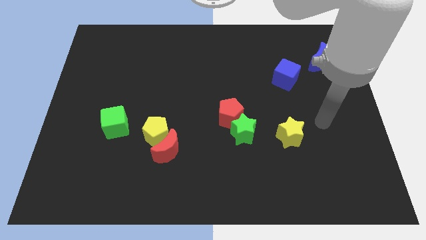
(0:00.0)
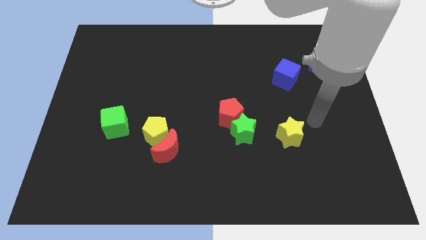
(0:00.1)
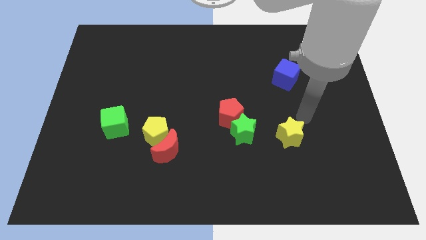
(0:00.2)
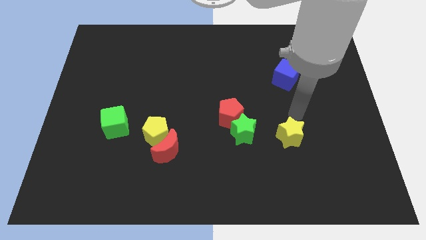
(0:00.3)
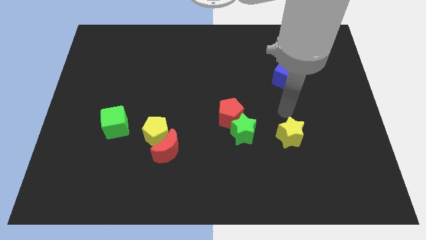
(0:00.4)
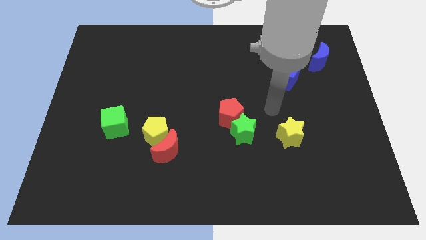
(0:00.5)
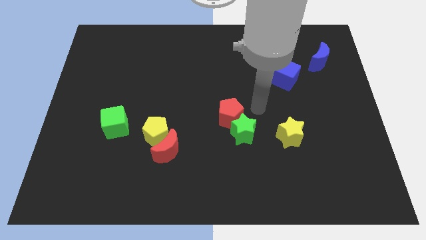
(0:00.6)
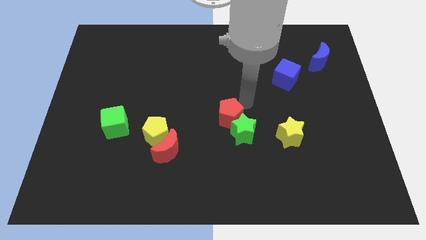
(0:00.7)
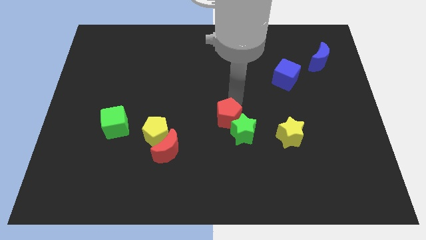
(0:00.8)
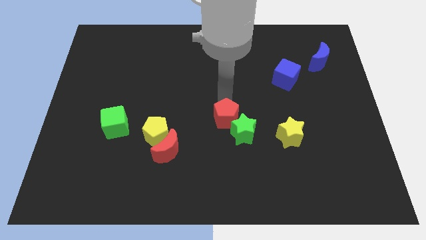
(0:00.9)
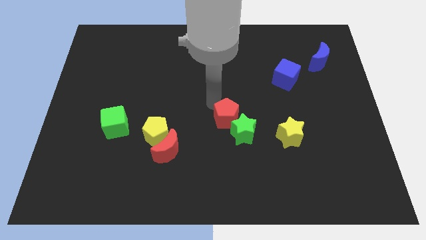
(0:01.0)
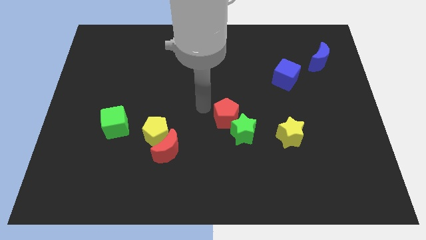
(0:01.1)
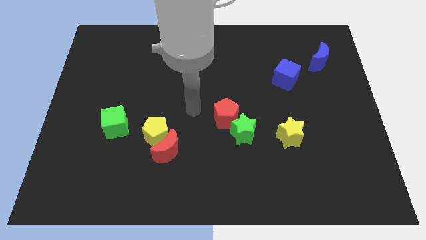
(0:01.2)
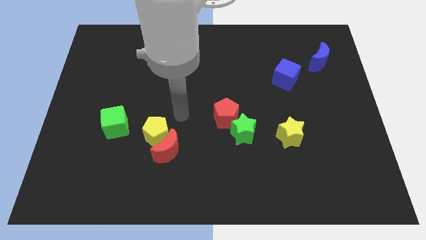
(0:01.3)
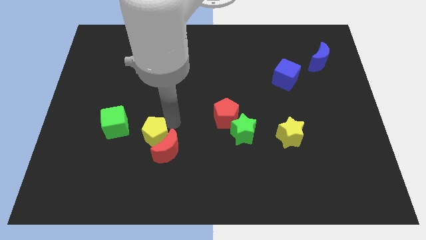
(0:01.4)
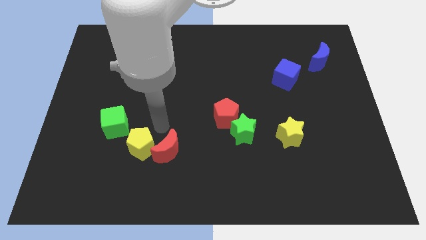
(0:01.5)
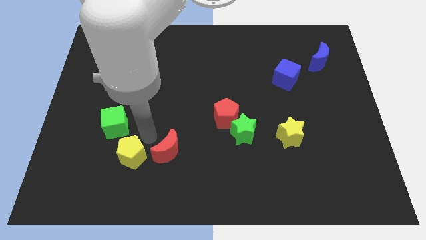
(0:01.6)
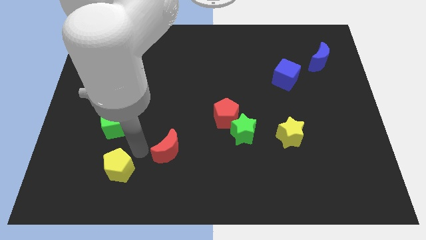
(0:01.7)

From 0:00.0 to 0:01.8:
pull the red moon apart from the yellow pentagon

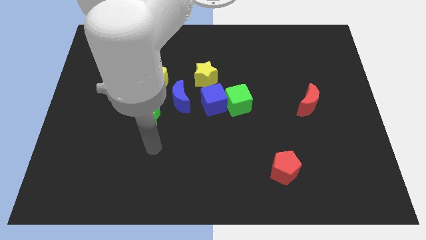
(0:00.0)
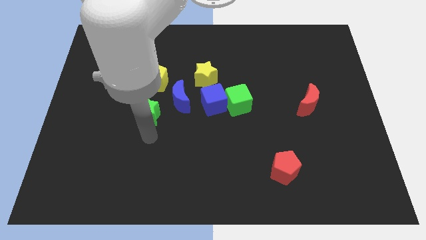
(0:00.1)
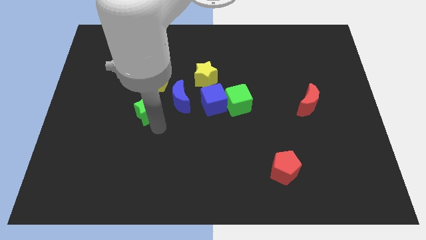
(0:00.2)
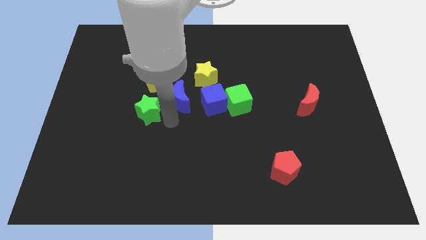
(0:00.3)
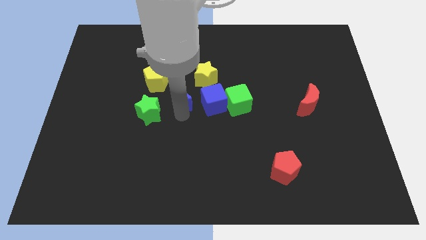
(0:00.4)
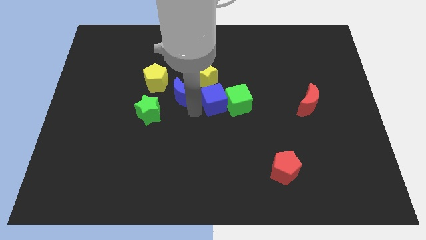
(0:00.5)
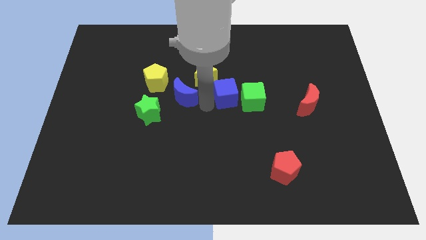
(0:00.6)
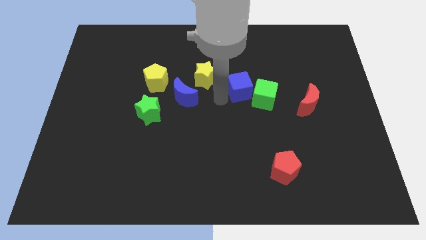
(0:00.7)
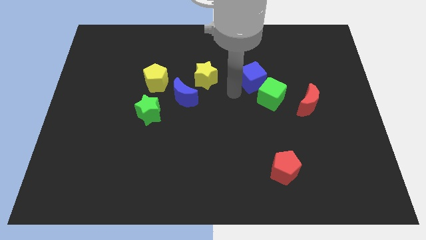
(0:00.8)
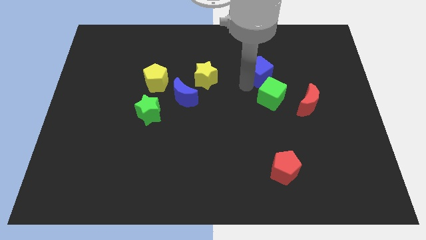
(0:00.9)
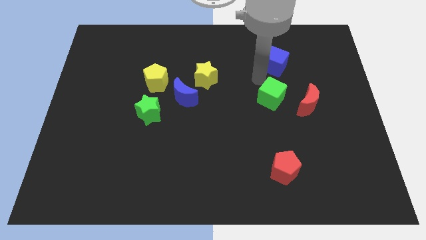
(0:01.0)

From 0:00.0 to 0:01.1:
separate the green cube from the blue cube

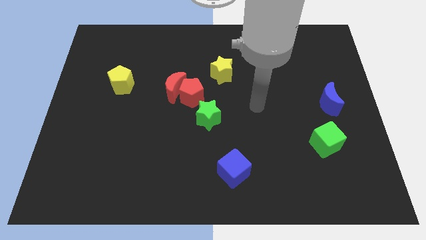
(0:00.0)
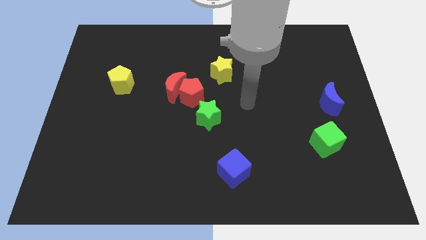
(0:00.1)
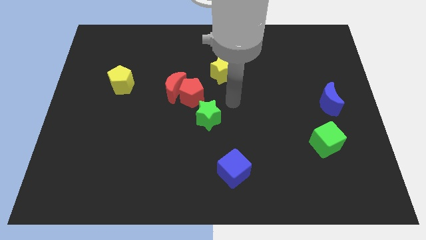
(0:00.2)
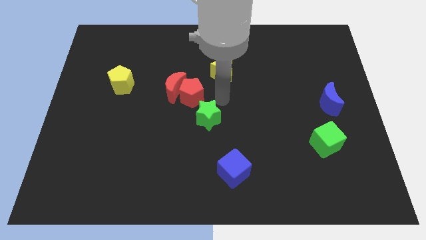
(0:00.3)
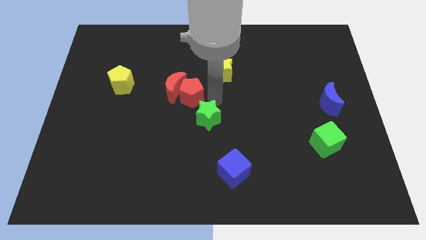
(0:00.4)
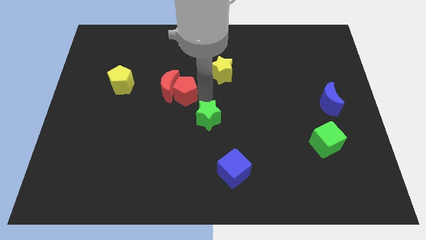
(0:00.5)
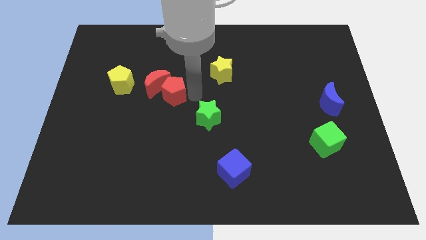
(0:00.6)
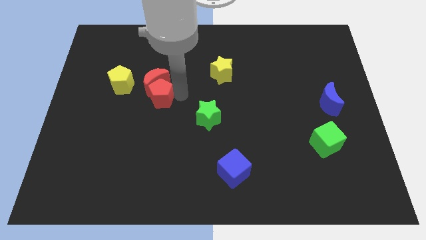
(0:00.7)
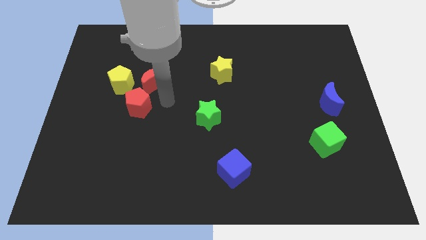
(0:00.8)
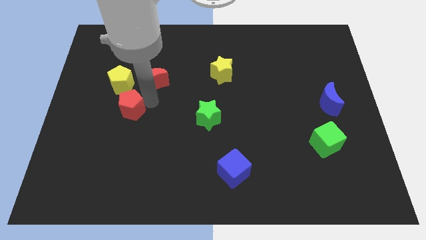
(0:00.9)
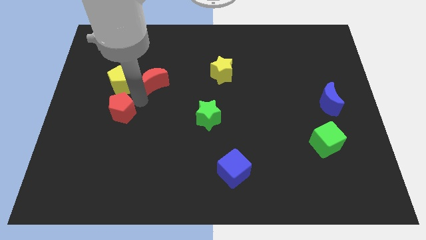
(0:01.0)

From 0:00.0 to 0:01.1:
pull the red moon apart from the red pentagon

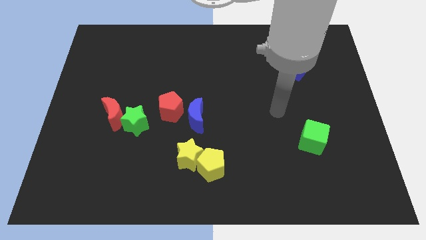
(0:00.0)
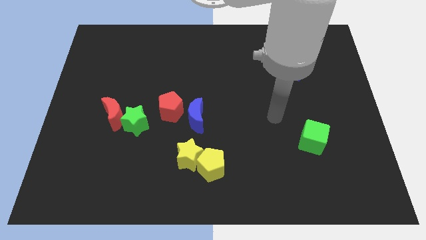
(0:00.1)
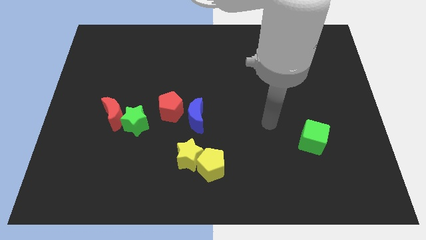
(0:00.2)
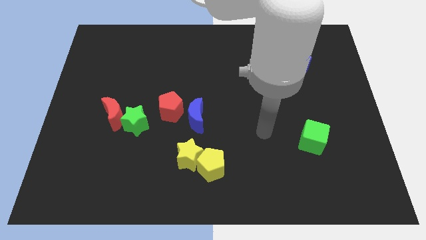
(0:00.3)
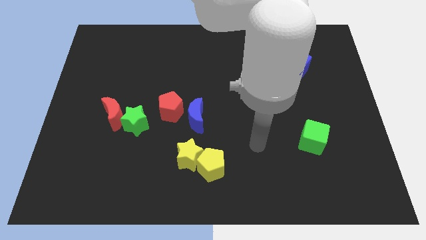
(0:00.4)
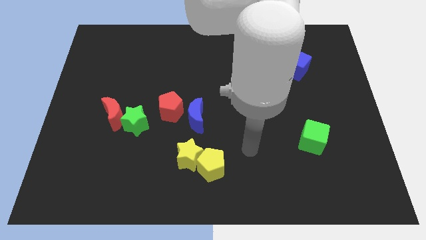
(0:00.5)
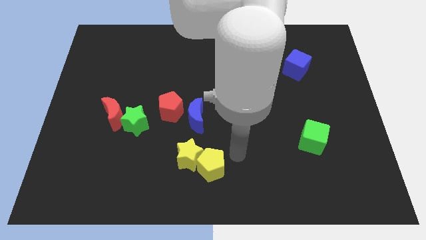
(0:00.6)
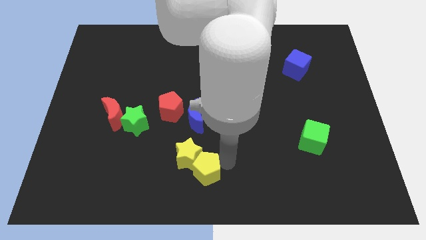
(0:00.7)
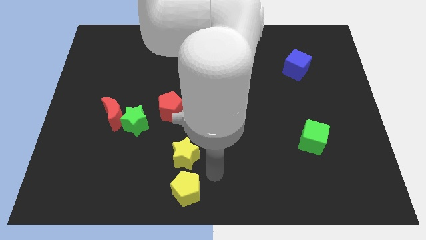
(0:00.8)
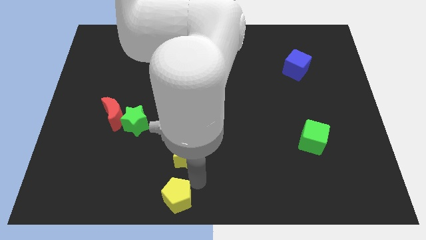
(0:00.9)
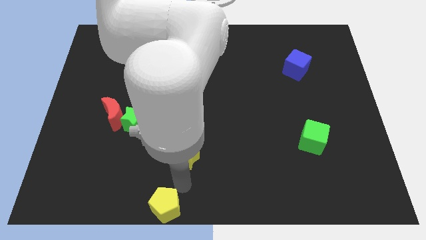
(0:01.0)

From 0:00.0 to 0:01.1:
separate the yellow star from the yellow pentagon

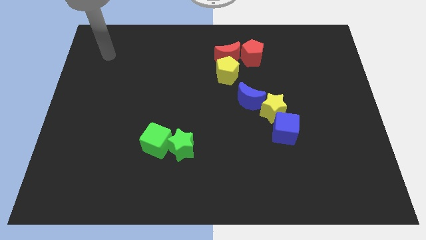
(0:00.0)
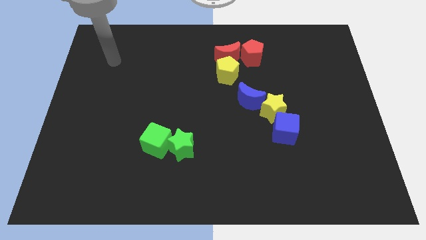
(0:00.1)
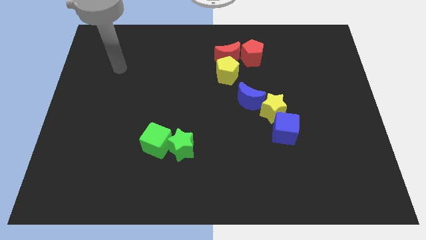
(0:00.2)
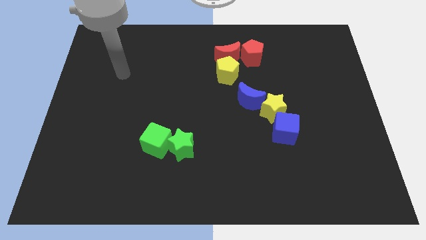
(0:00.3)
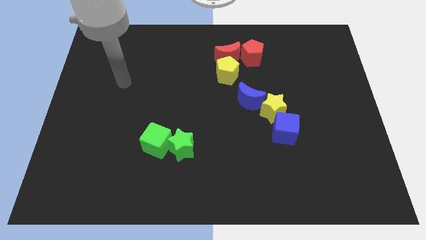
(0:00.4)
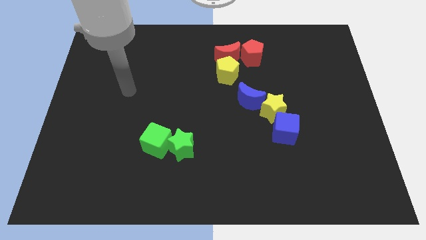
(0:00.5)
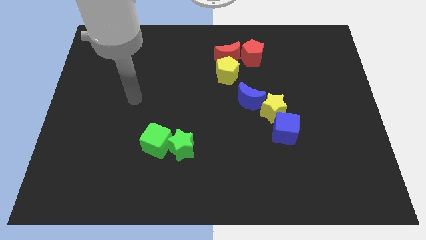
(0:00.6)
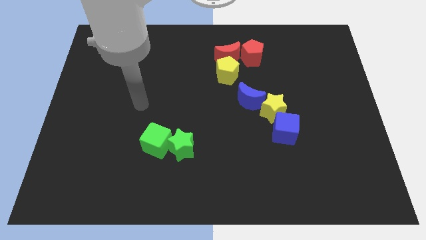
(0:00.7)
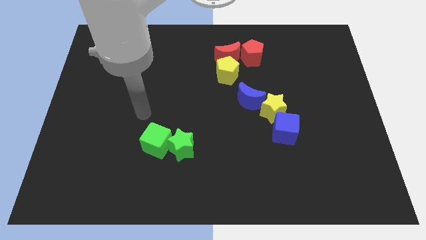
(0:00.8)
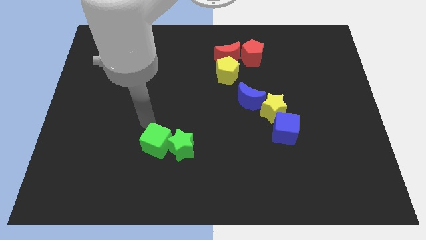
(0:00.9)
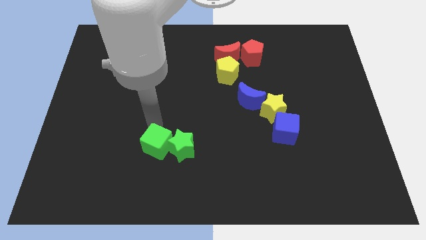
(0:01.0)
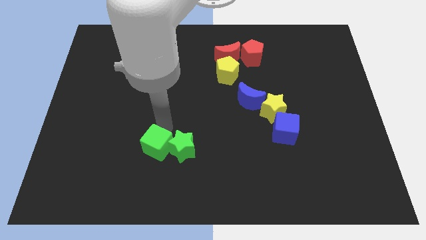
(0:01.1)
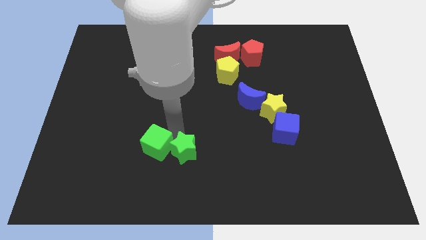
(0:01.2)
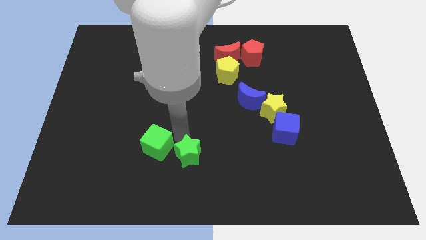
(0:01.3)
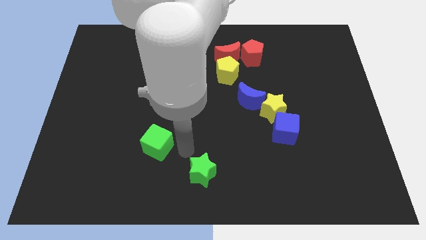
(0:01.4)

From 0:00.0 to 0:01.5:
separate the green cube from the green star

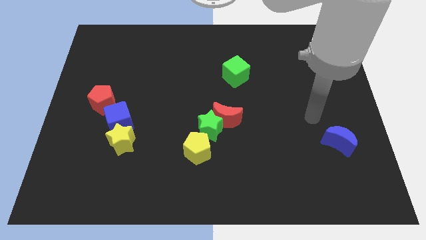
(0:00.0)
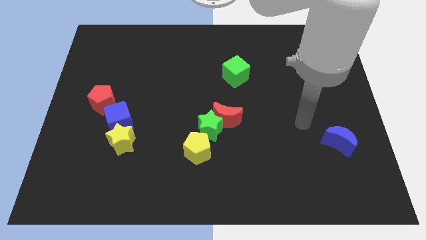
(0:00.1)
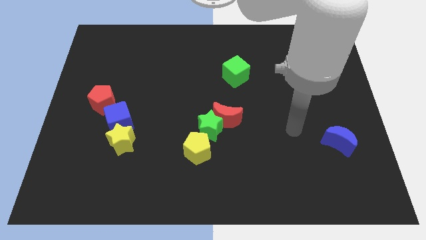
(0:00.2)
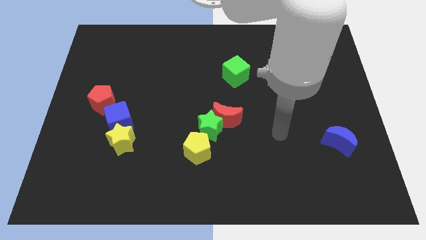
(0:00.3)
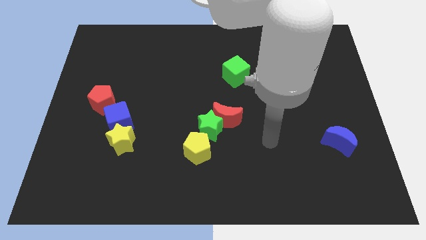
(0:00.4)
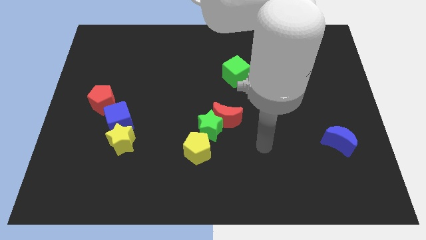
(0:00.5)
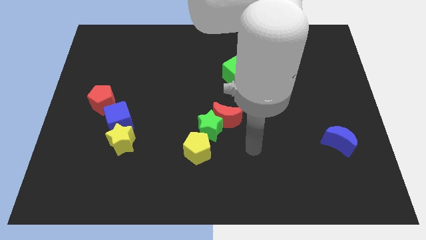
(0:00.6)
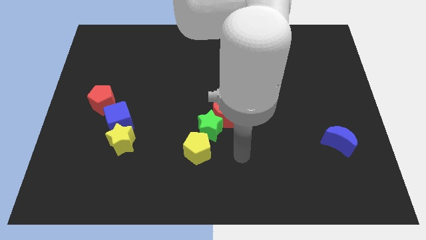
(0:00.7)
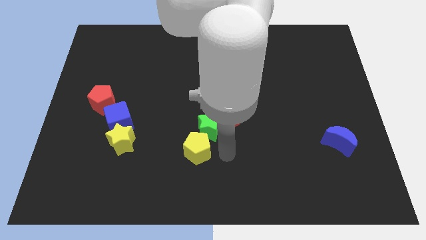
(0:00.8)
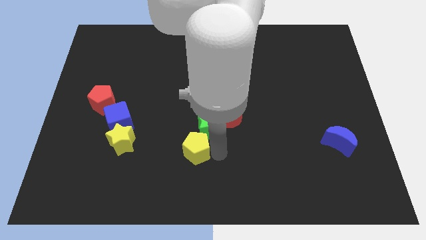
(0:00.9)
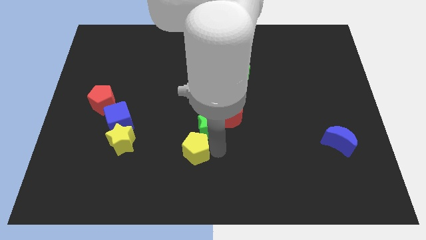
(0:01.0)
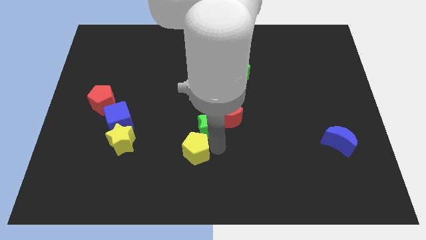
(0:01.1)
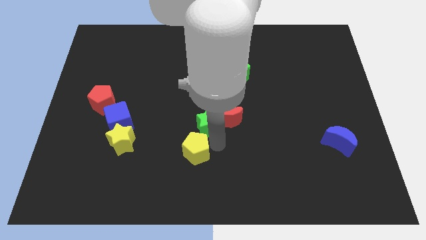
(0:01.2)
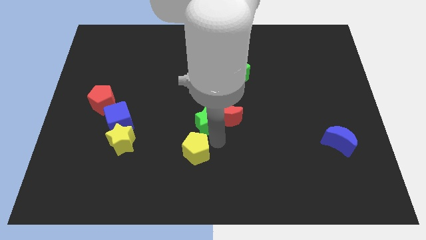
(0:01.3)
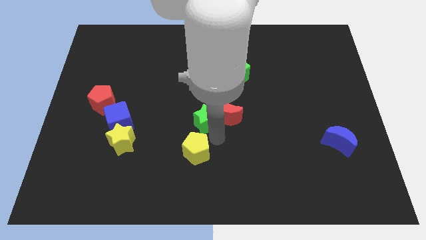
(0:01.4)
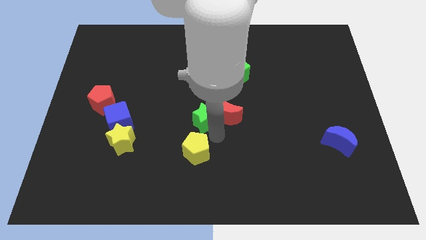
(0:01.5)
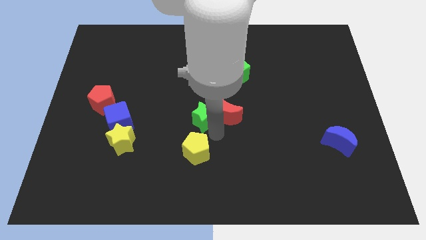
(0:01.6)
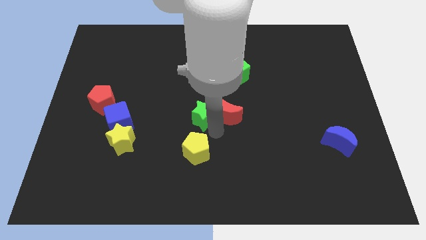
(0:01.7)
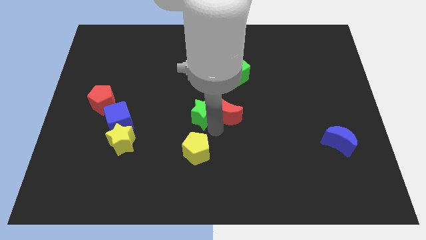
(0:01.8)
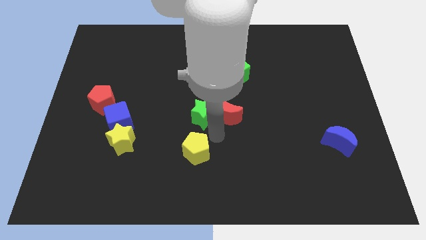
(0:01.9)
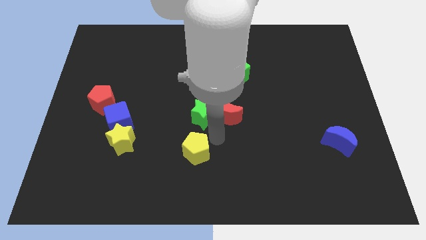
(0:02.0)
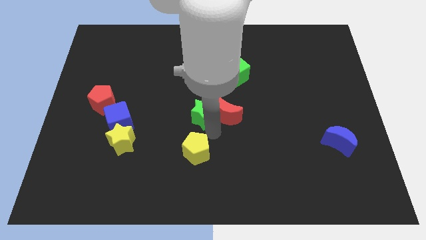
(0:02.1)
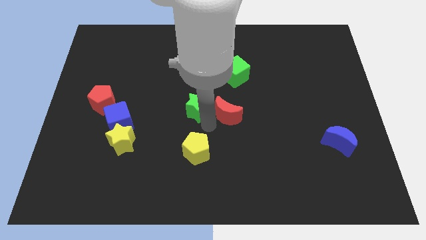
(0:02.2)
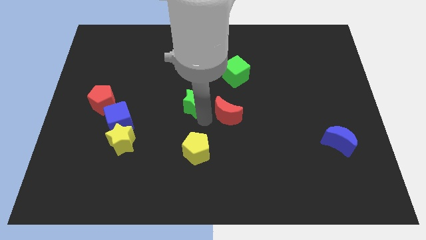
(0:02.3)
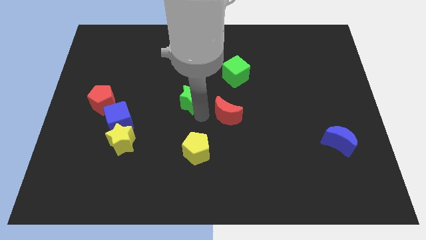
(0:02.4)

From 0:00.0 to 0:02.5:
move the green star away from the red moon and yellow pentagon
